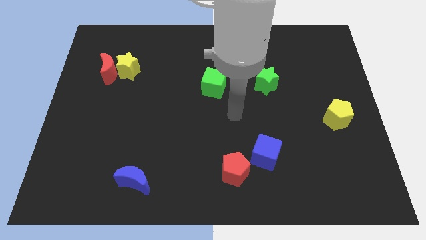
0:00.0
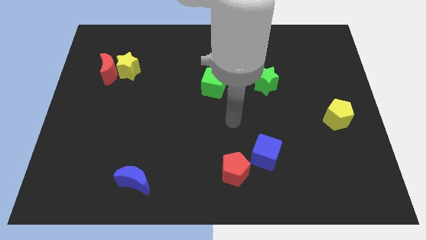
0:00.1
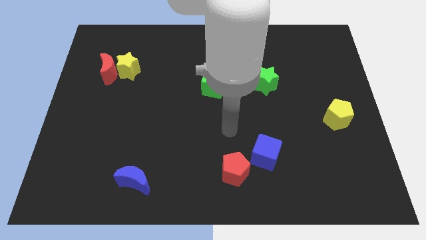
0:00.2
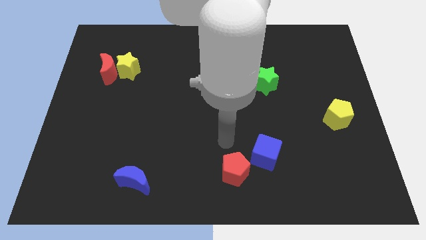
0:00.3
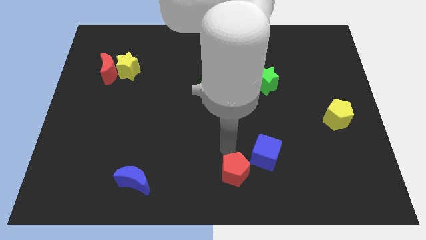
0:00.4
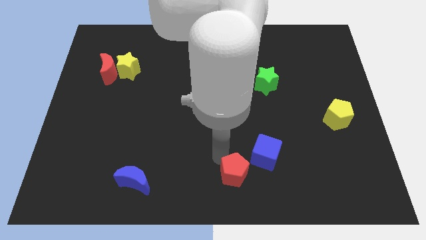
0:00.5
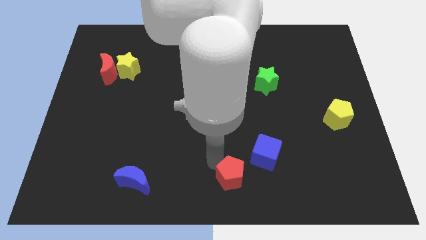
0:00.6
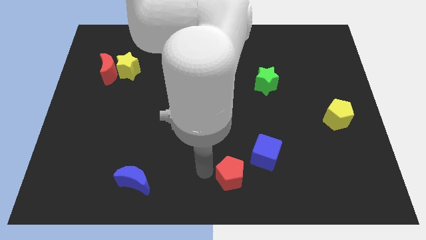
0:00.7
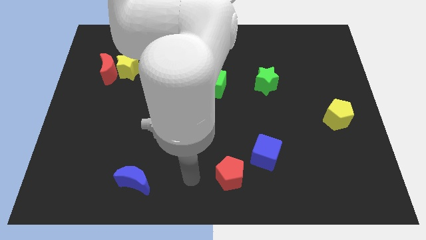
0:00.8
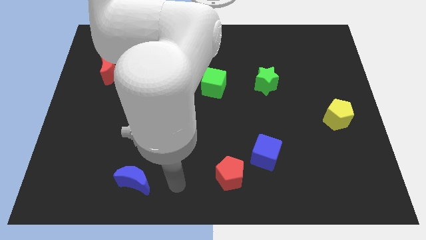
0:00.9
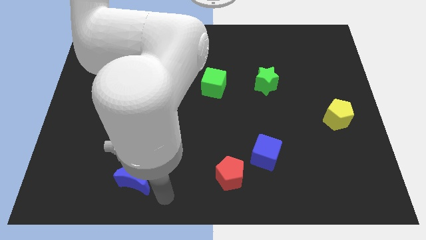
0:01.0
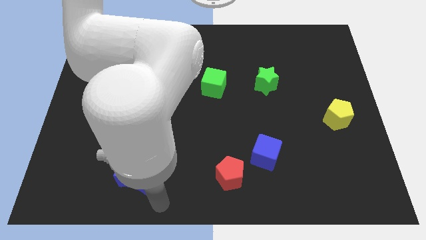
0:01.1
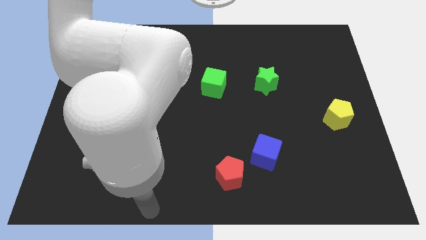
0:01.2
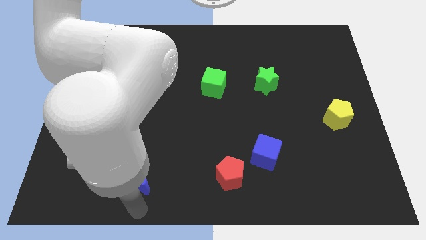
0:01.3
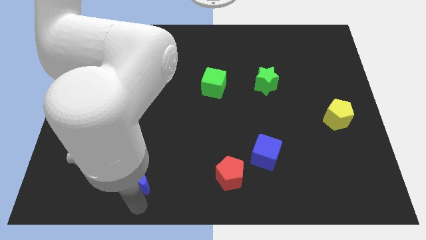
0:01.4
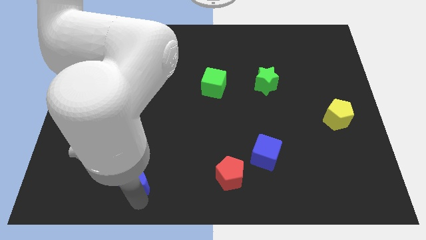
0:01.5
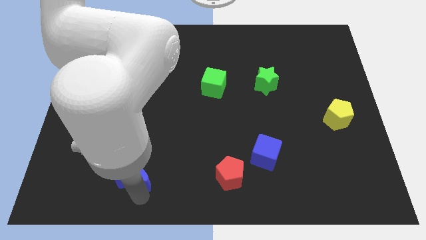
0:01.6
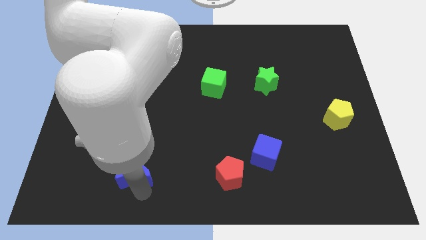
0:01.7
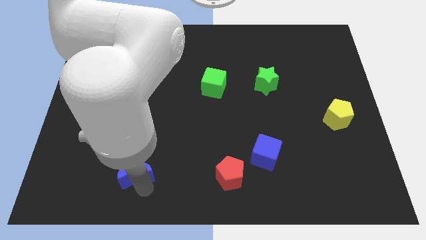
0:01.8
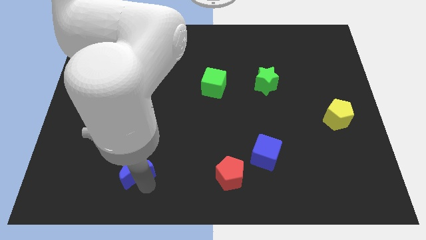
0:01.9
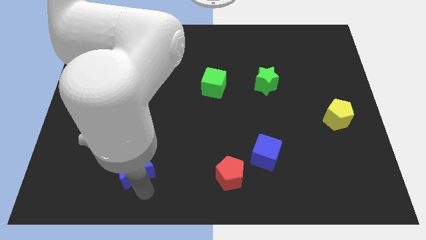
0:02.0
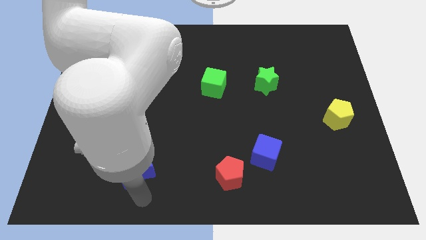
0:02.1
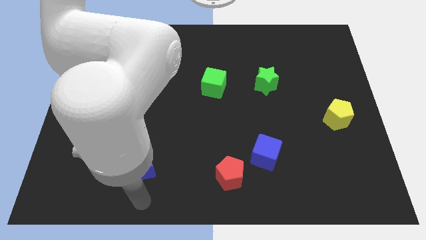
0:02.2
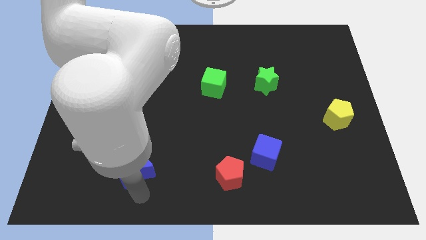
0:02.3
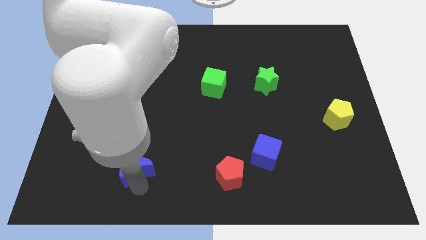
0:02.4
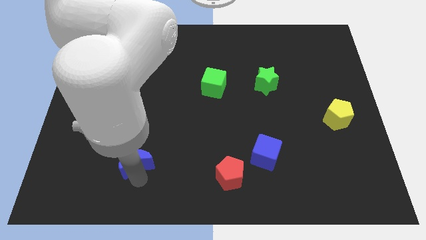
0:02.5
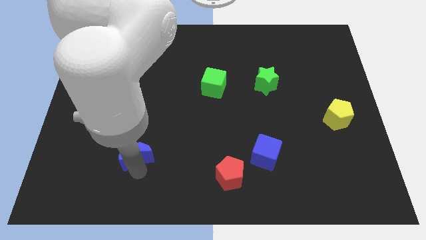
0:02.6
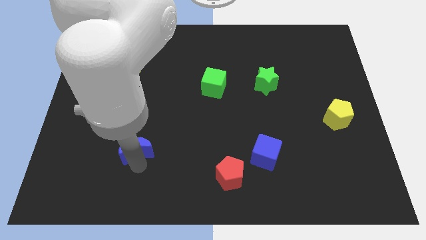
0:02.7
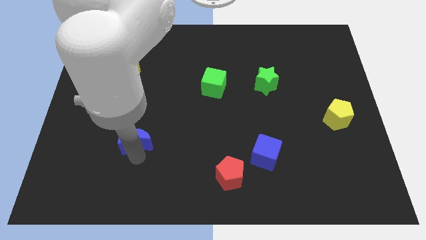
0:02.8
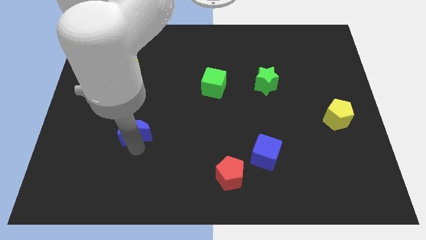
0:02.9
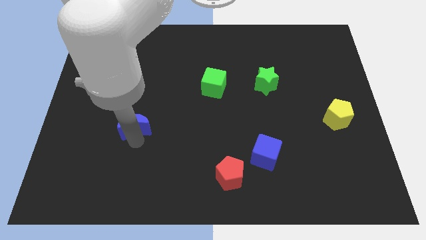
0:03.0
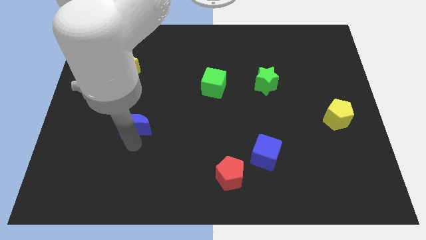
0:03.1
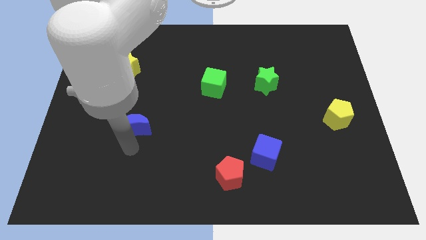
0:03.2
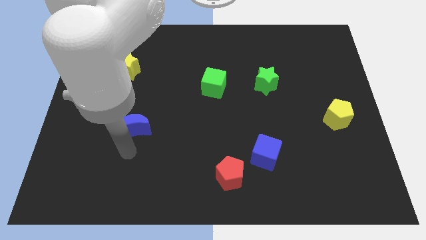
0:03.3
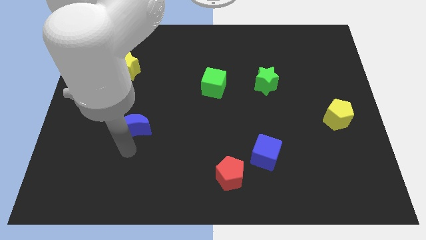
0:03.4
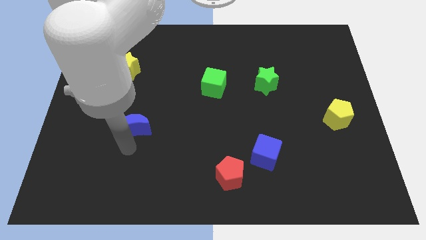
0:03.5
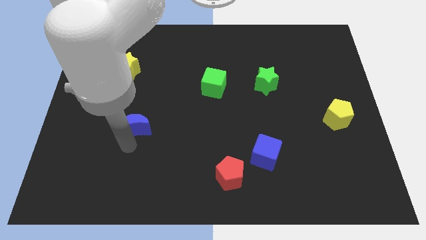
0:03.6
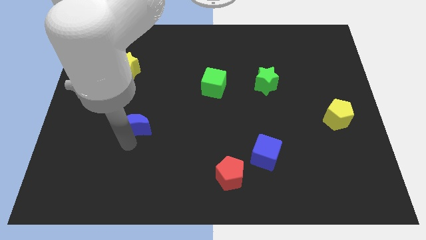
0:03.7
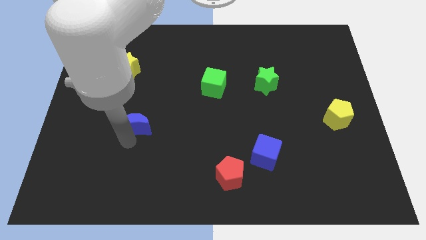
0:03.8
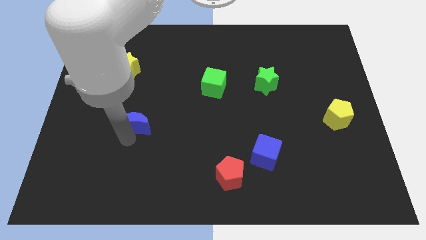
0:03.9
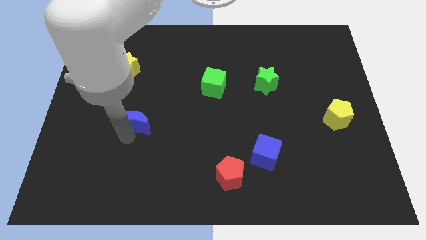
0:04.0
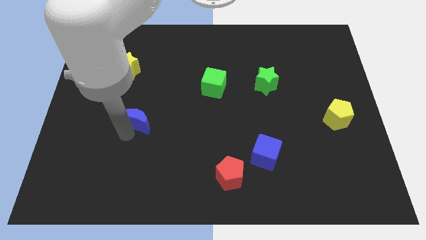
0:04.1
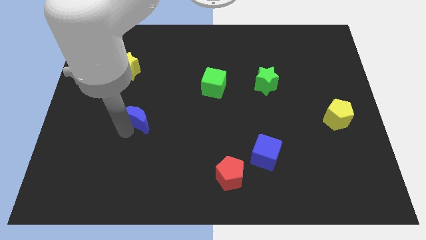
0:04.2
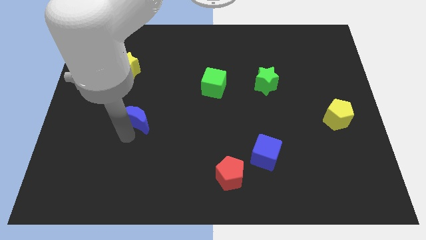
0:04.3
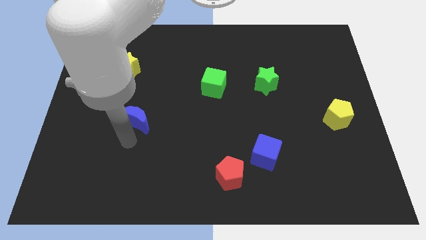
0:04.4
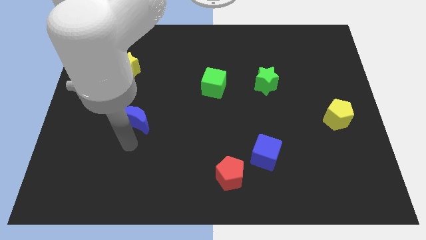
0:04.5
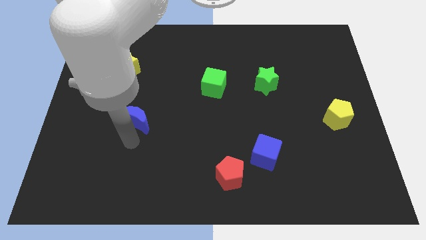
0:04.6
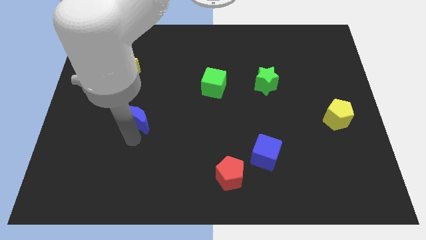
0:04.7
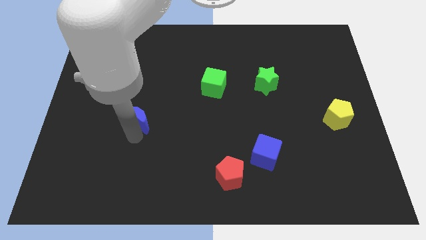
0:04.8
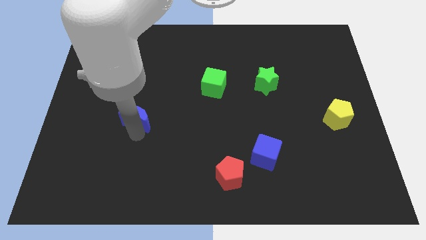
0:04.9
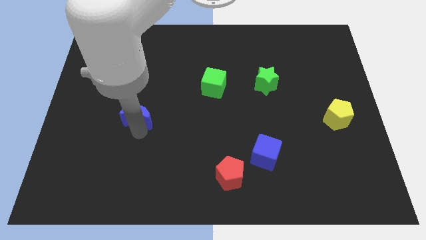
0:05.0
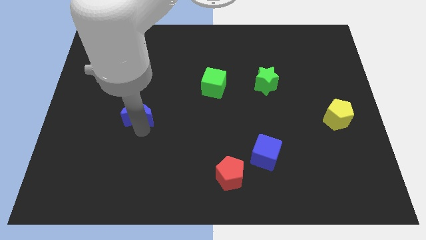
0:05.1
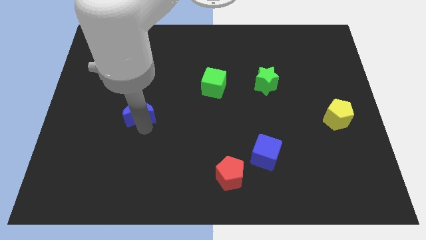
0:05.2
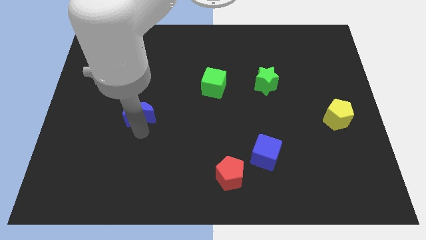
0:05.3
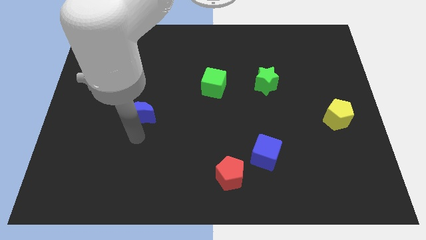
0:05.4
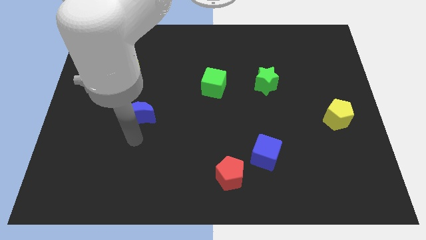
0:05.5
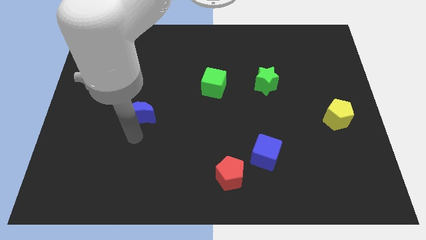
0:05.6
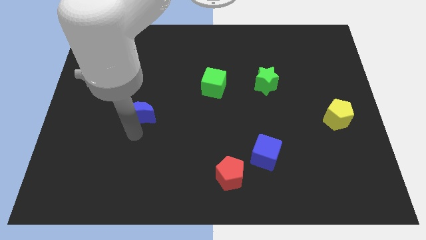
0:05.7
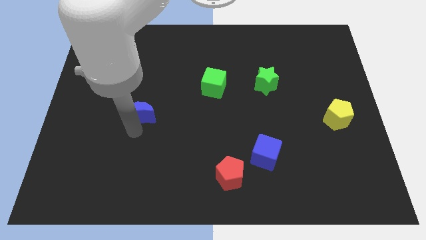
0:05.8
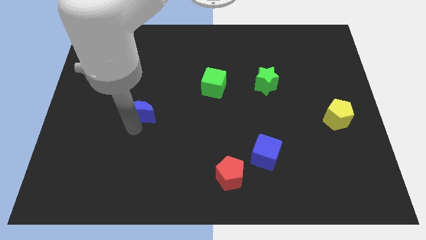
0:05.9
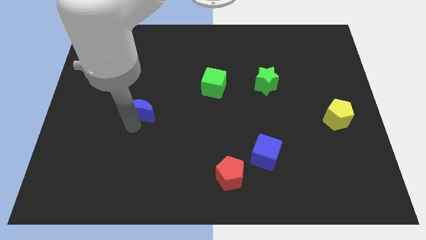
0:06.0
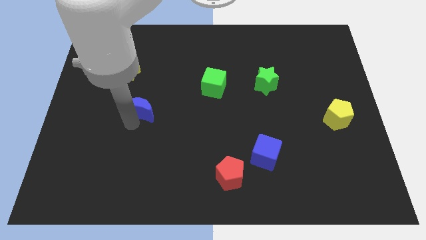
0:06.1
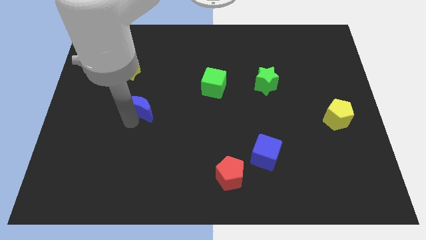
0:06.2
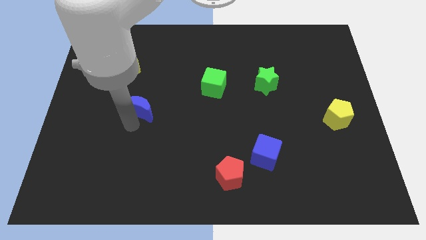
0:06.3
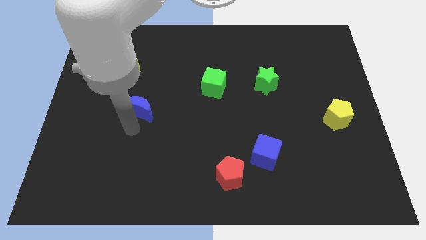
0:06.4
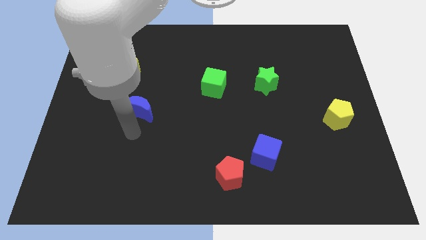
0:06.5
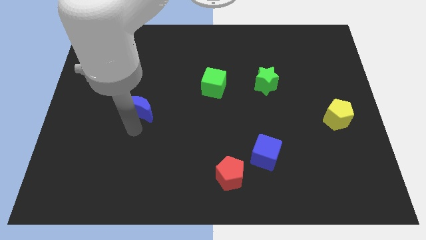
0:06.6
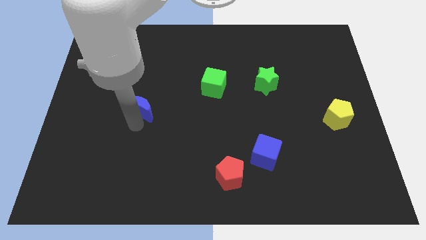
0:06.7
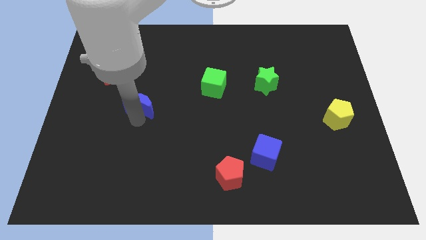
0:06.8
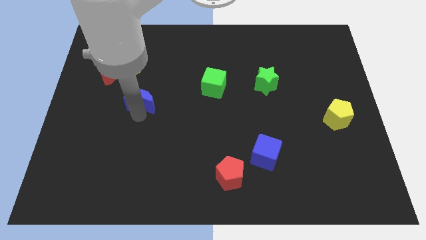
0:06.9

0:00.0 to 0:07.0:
push the blue moon upwards

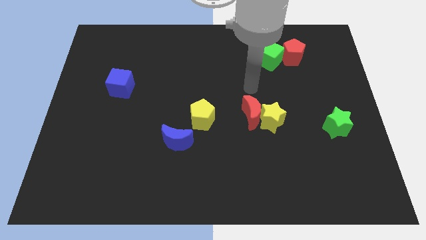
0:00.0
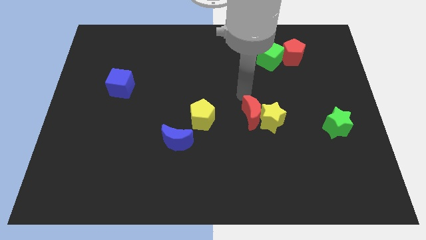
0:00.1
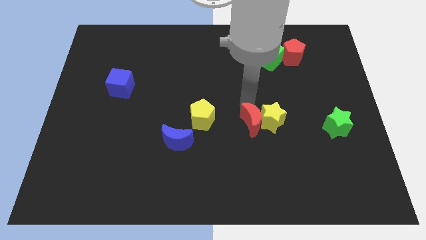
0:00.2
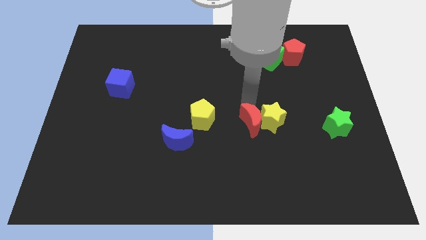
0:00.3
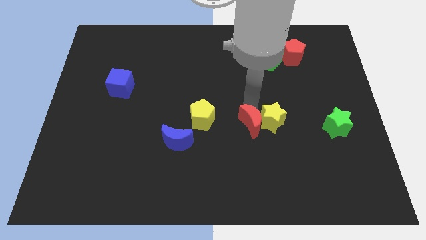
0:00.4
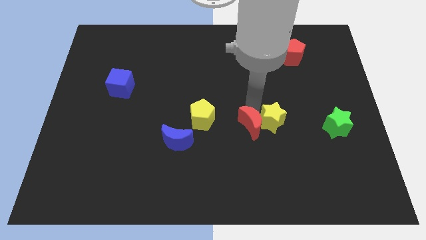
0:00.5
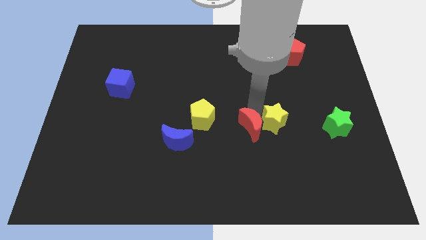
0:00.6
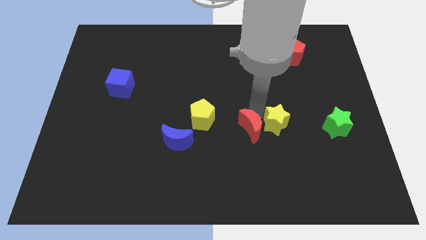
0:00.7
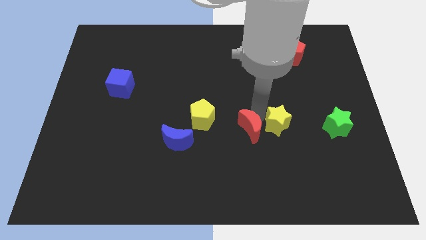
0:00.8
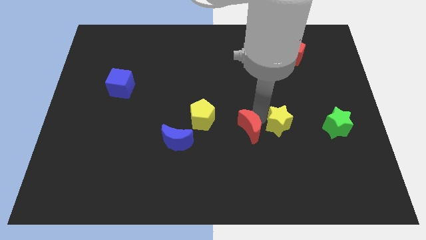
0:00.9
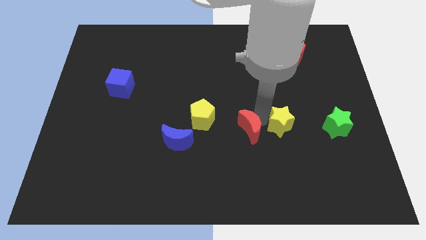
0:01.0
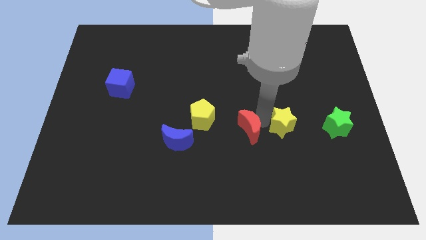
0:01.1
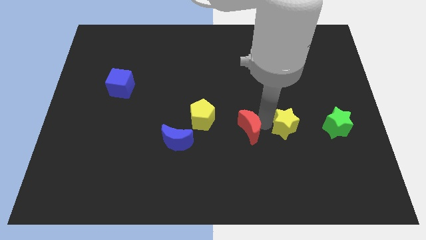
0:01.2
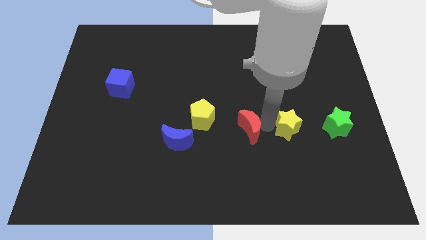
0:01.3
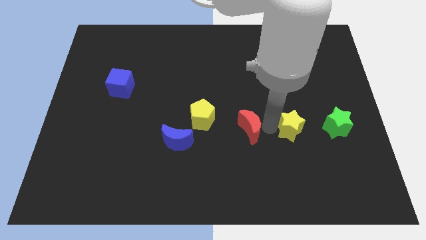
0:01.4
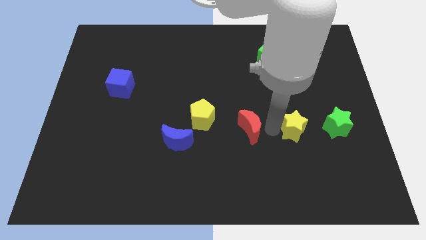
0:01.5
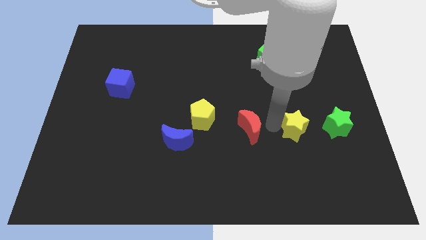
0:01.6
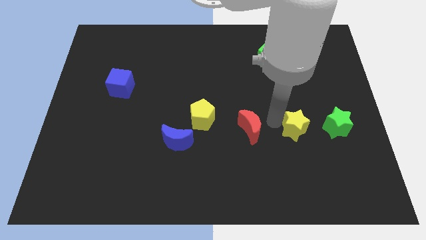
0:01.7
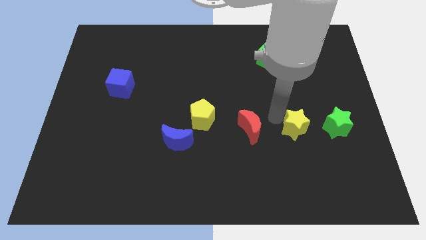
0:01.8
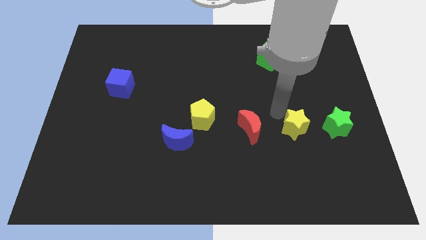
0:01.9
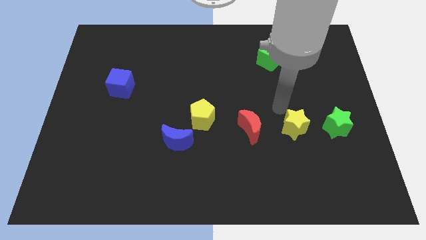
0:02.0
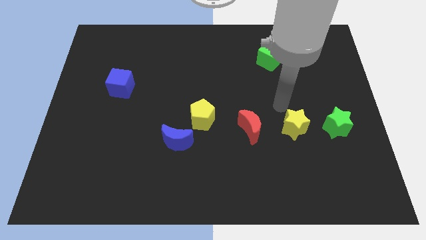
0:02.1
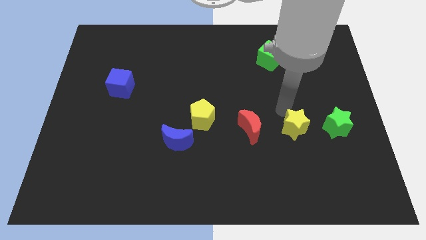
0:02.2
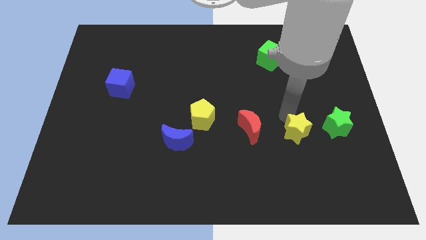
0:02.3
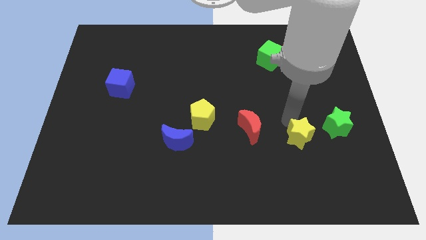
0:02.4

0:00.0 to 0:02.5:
push the yellow star downwards and to the right a little
